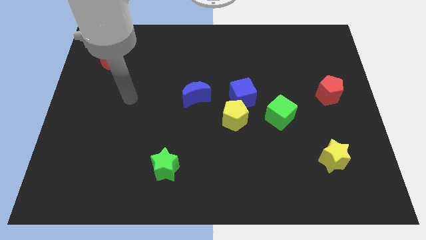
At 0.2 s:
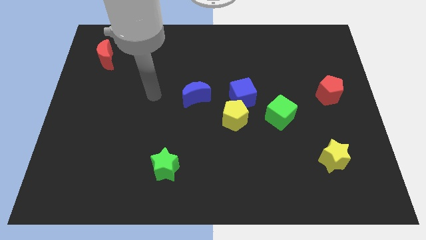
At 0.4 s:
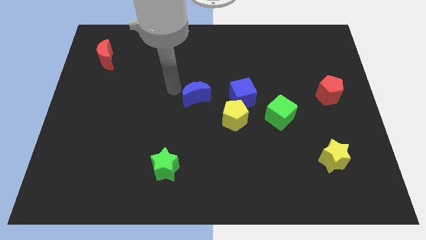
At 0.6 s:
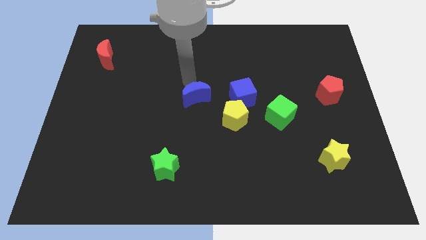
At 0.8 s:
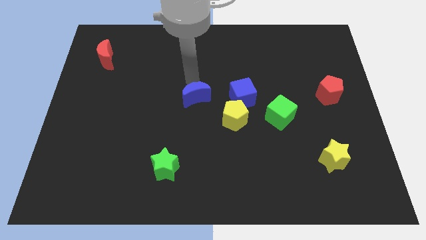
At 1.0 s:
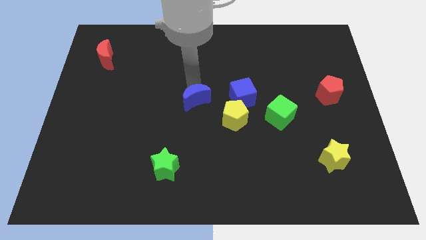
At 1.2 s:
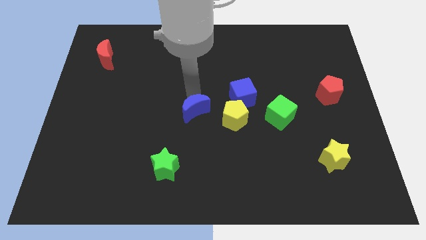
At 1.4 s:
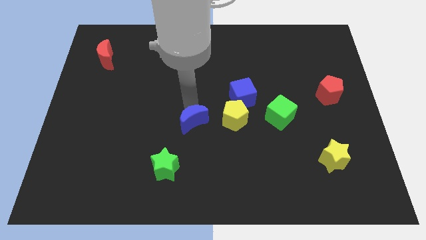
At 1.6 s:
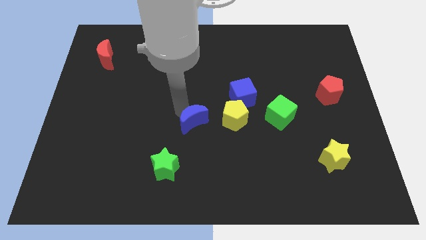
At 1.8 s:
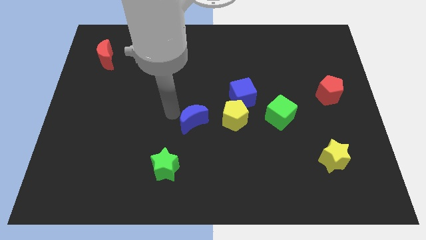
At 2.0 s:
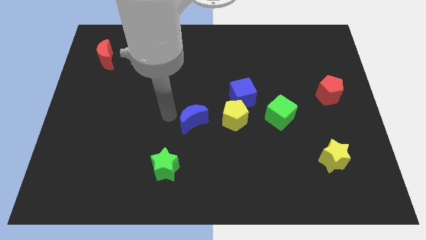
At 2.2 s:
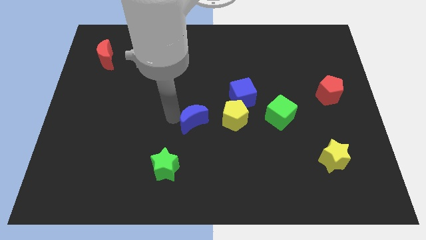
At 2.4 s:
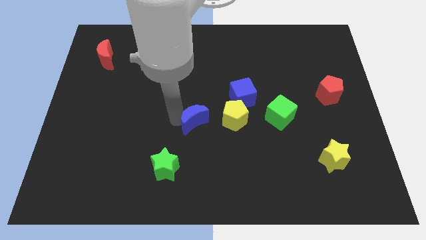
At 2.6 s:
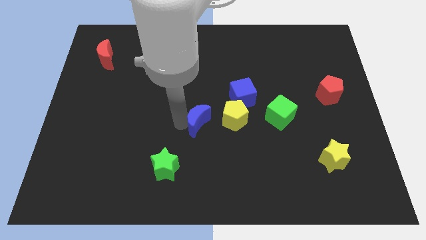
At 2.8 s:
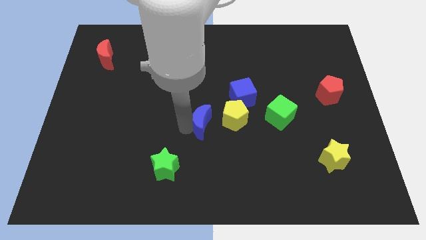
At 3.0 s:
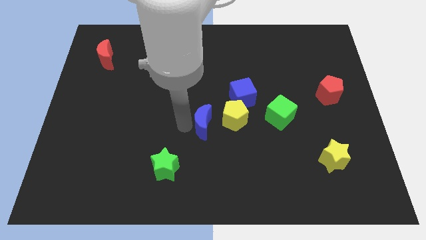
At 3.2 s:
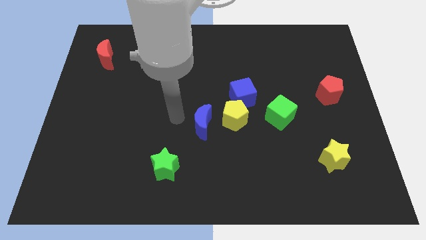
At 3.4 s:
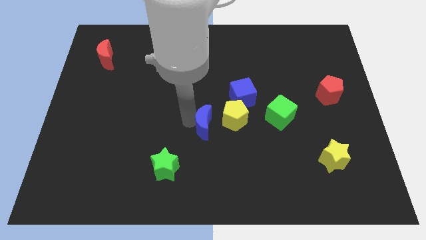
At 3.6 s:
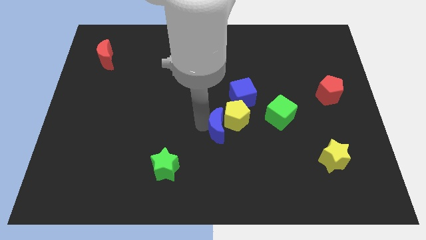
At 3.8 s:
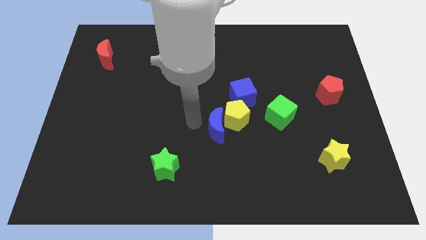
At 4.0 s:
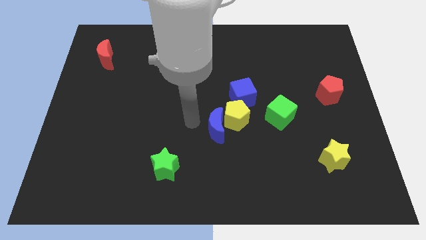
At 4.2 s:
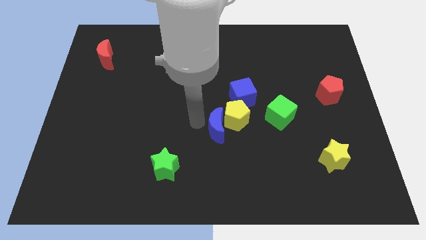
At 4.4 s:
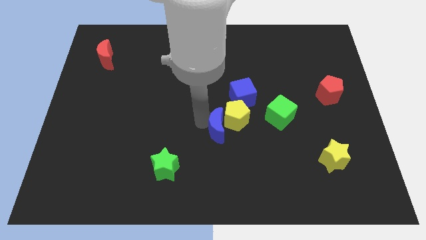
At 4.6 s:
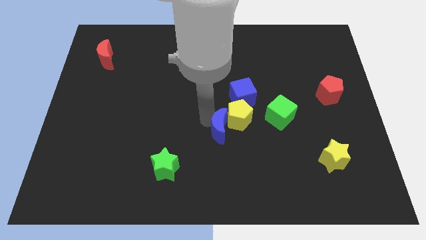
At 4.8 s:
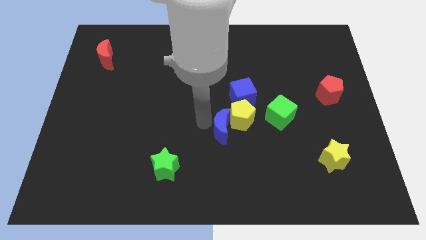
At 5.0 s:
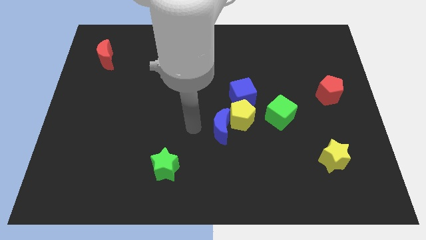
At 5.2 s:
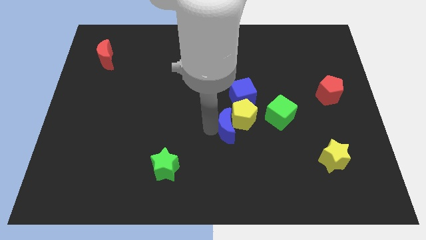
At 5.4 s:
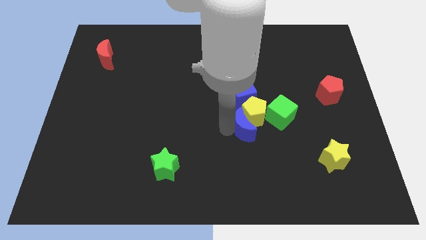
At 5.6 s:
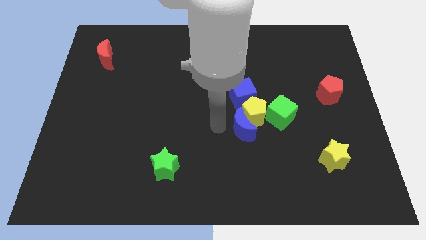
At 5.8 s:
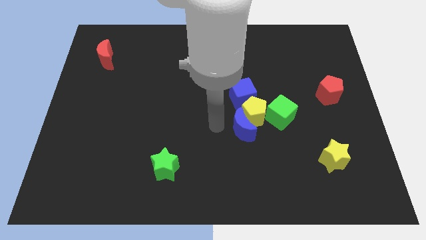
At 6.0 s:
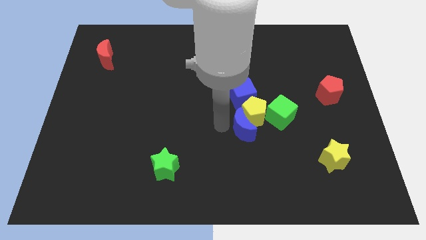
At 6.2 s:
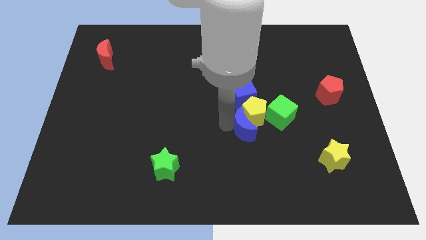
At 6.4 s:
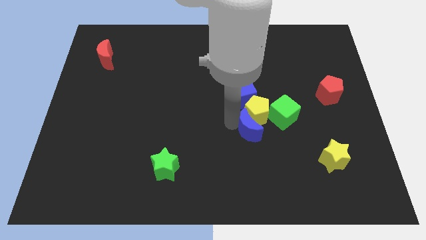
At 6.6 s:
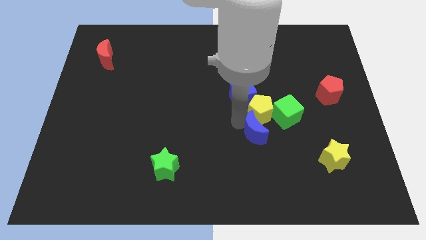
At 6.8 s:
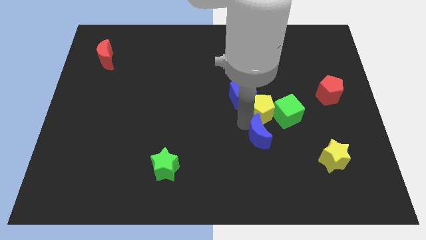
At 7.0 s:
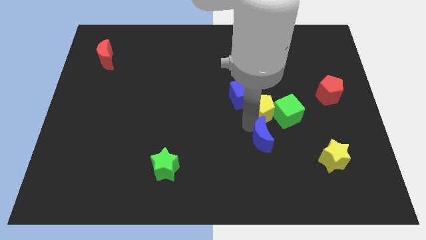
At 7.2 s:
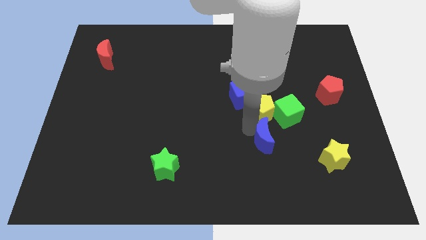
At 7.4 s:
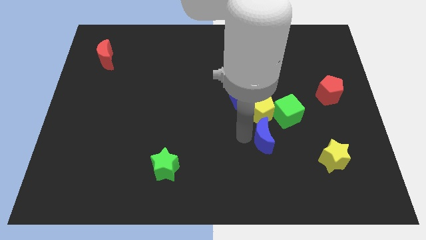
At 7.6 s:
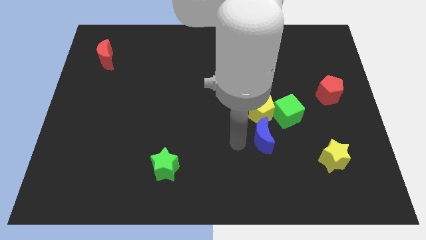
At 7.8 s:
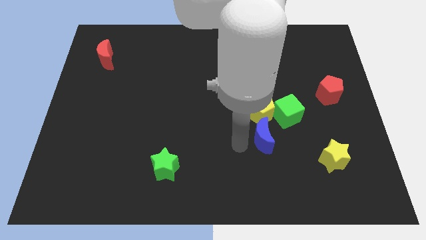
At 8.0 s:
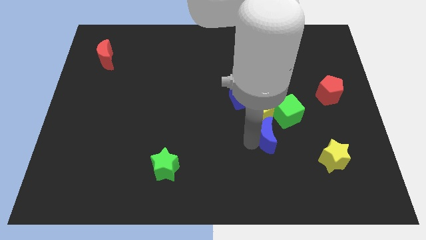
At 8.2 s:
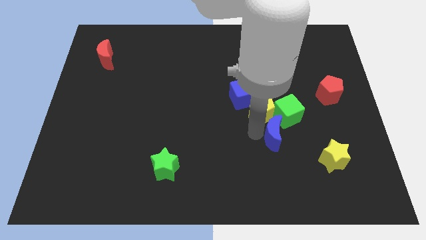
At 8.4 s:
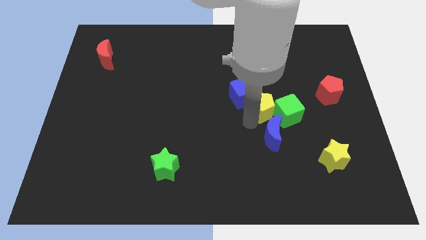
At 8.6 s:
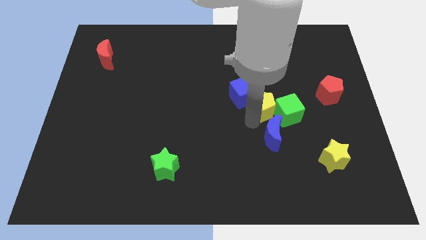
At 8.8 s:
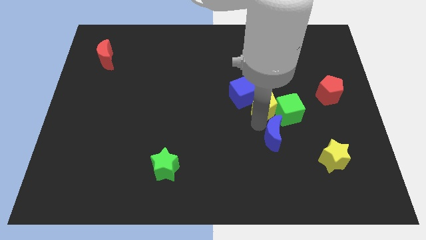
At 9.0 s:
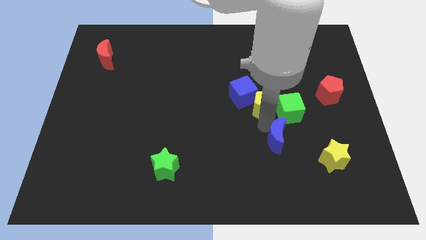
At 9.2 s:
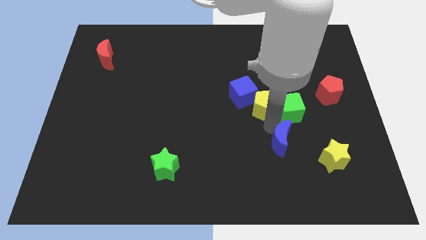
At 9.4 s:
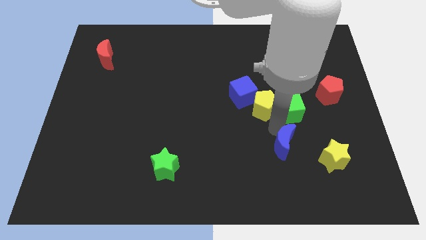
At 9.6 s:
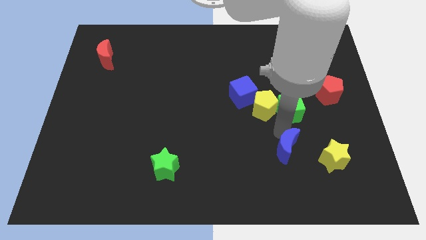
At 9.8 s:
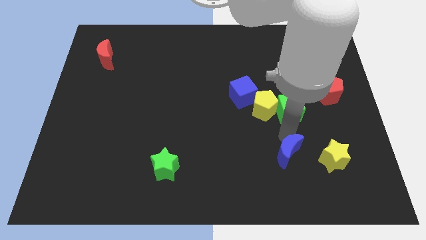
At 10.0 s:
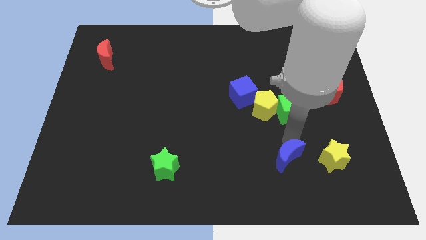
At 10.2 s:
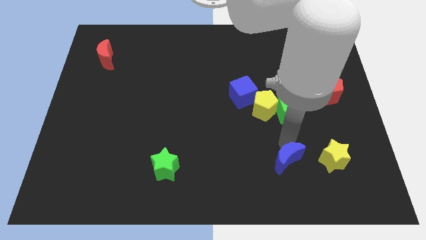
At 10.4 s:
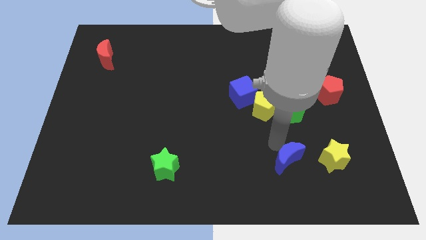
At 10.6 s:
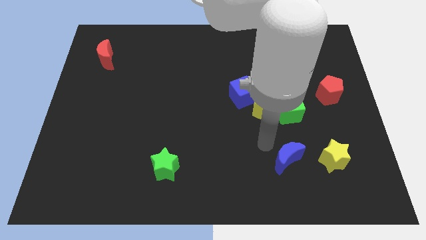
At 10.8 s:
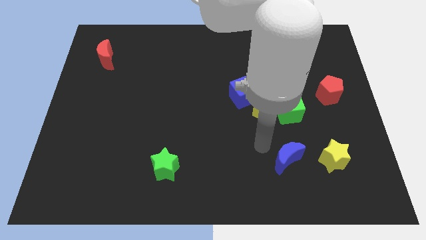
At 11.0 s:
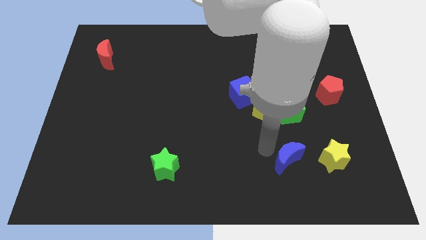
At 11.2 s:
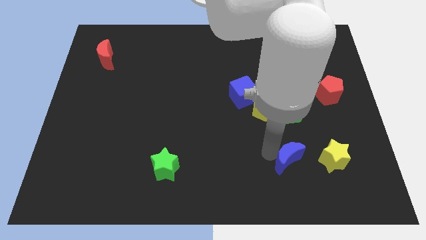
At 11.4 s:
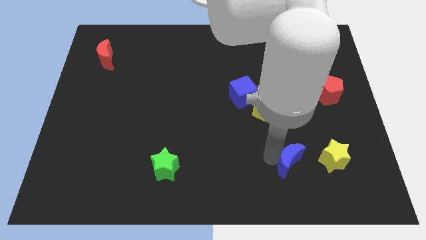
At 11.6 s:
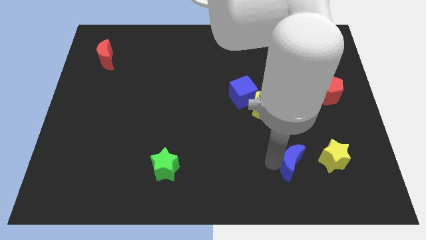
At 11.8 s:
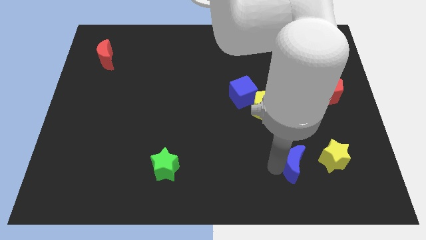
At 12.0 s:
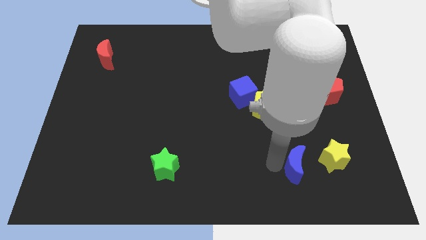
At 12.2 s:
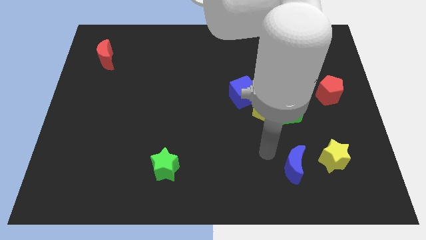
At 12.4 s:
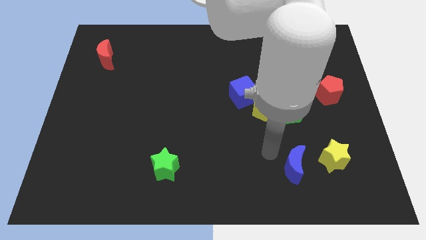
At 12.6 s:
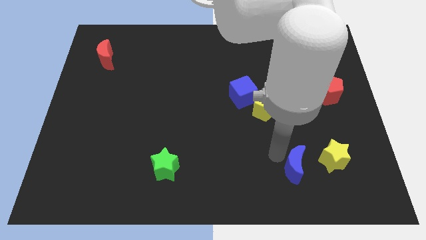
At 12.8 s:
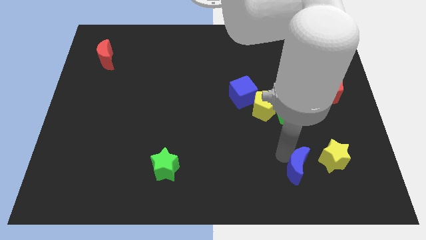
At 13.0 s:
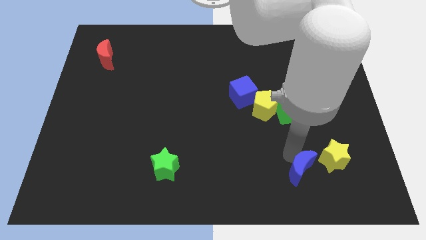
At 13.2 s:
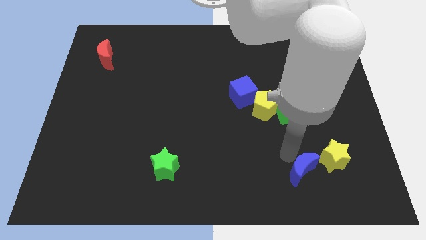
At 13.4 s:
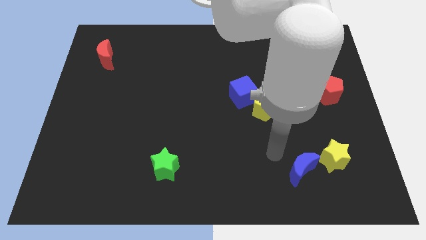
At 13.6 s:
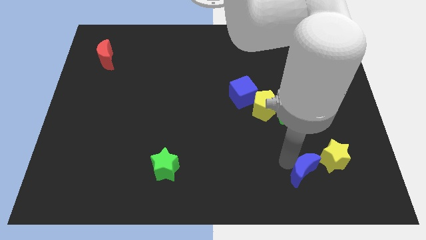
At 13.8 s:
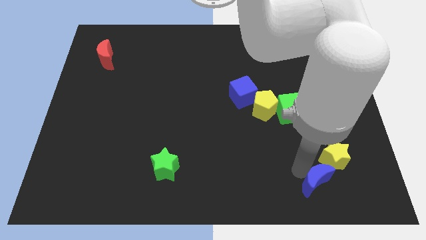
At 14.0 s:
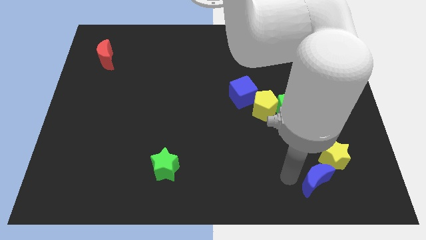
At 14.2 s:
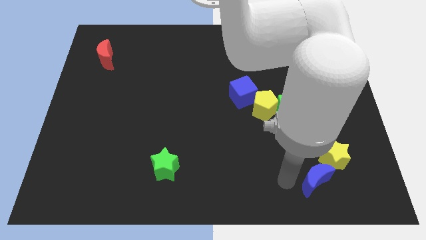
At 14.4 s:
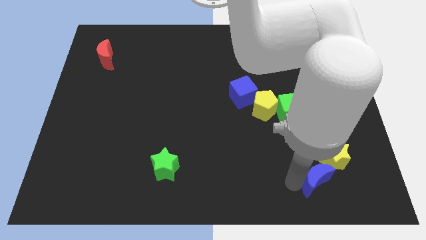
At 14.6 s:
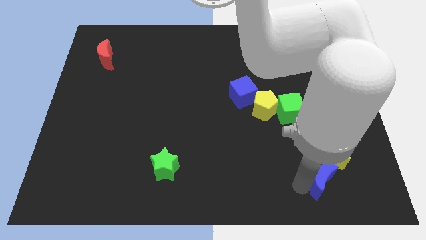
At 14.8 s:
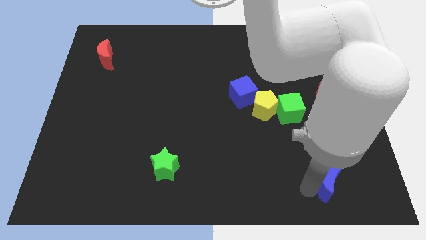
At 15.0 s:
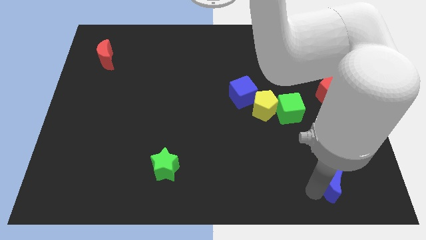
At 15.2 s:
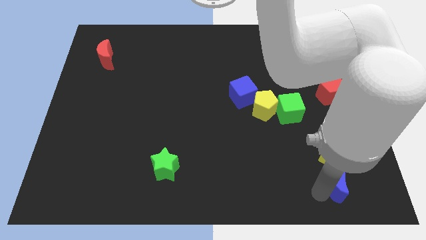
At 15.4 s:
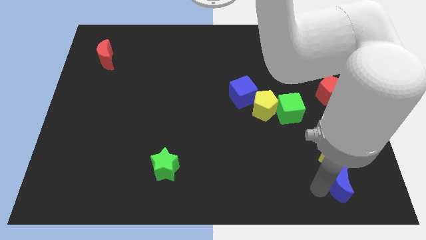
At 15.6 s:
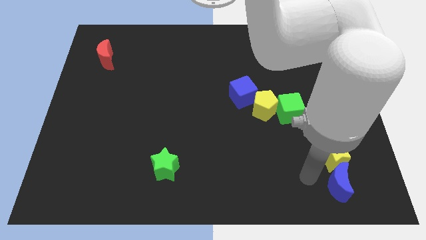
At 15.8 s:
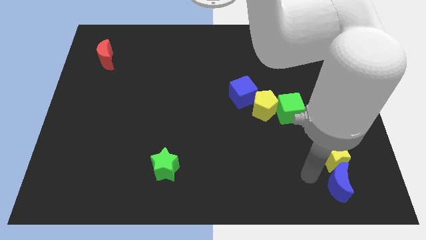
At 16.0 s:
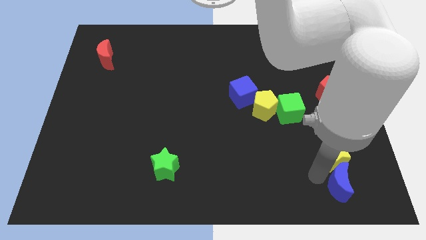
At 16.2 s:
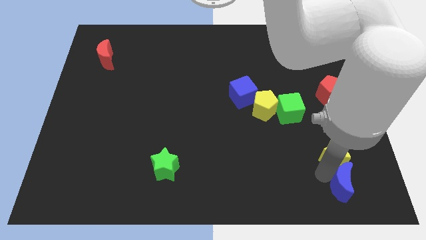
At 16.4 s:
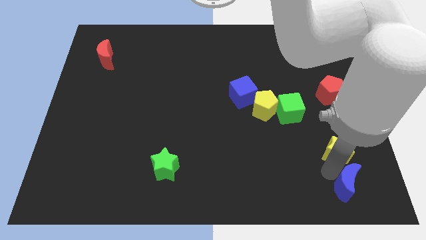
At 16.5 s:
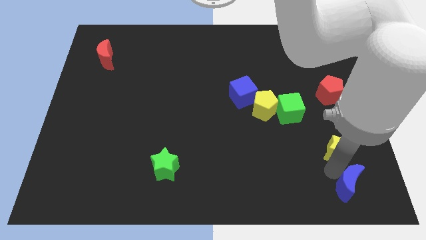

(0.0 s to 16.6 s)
push the blue moon to the bottom right
